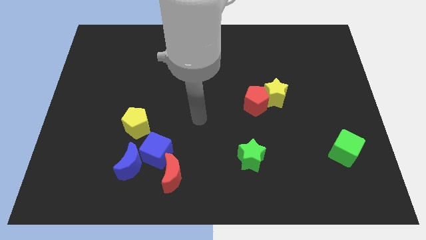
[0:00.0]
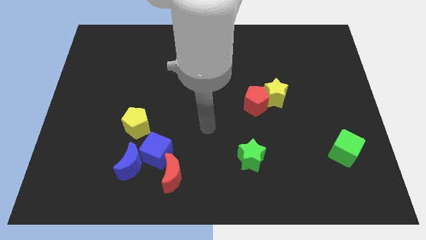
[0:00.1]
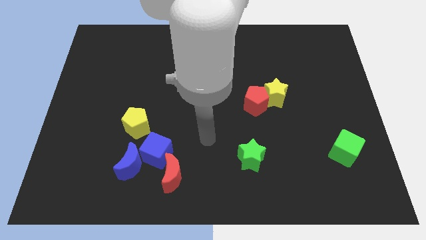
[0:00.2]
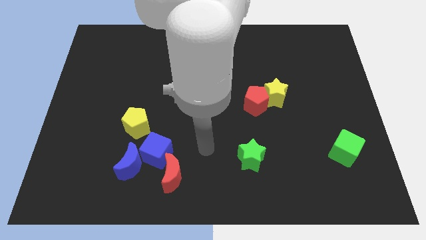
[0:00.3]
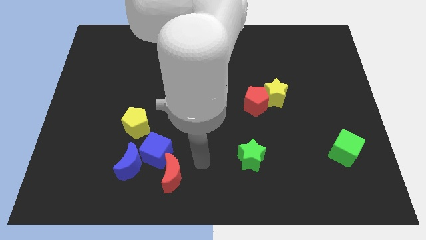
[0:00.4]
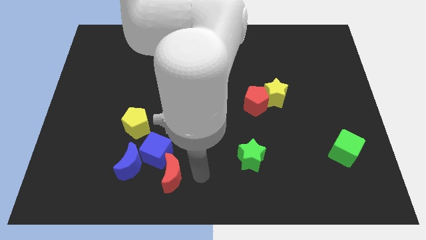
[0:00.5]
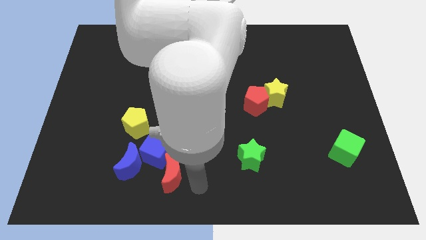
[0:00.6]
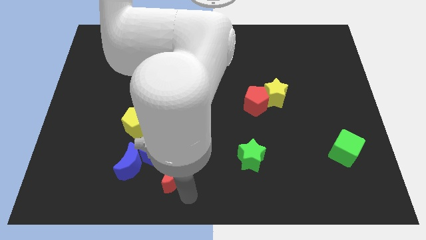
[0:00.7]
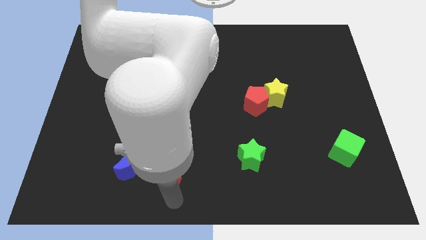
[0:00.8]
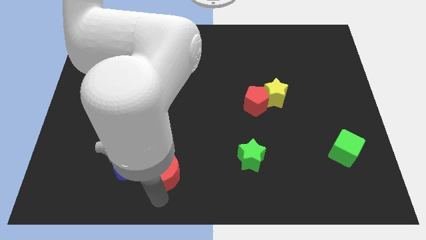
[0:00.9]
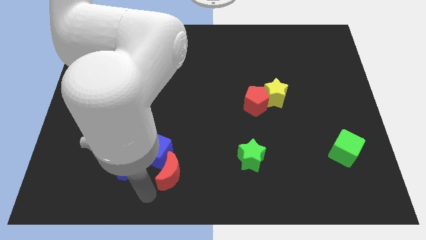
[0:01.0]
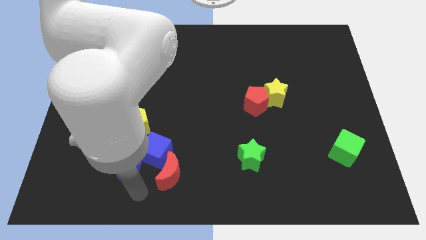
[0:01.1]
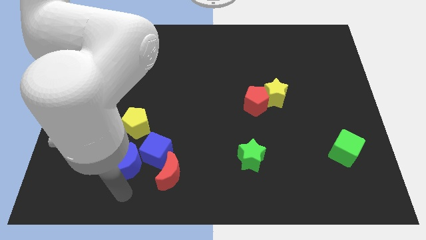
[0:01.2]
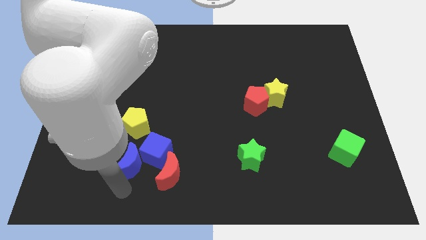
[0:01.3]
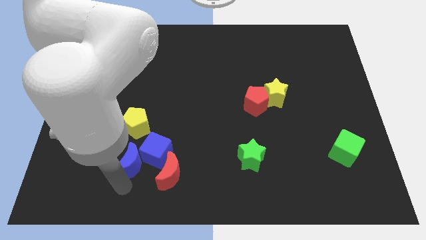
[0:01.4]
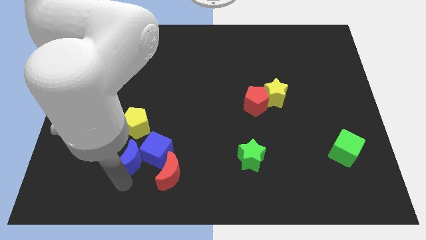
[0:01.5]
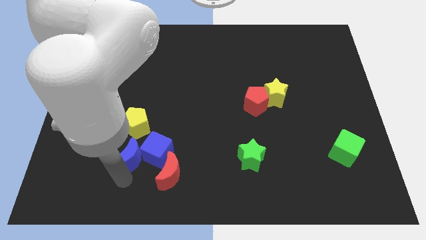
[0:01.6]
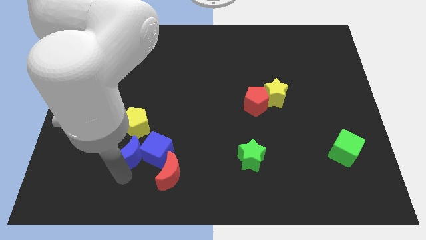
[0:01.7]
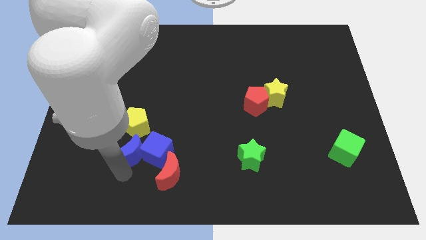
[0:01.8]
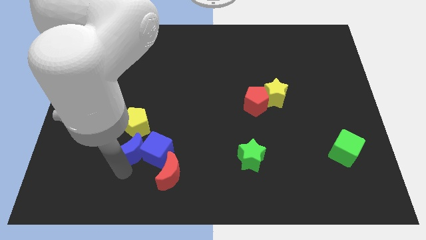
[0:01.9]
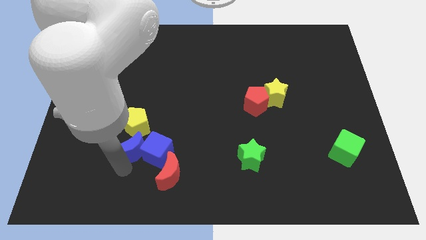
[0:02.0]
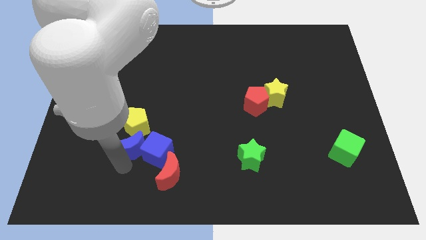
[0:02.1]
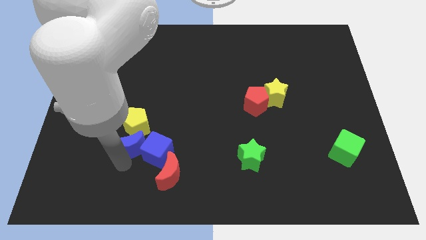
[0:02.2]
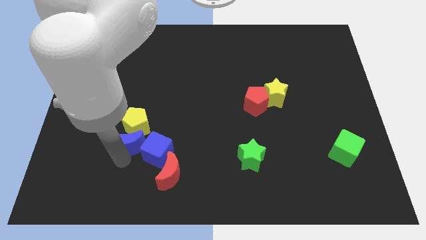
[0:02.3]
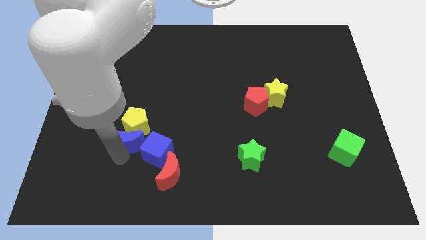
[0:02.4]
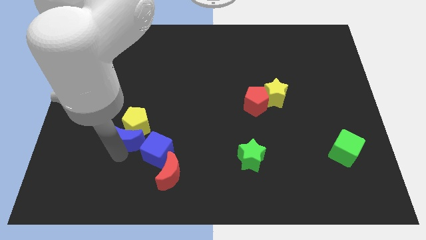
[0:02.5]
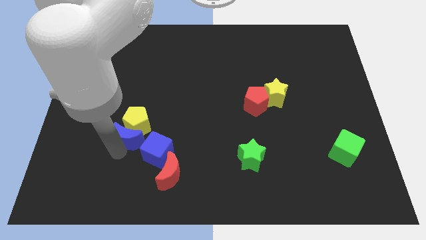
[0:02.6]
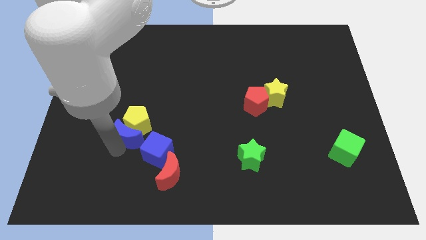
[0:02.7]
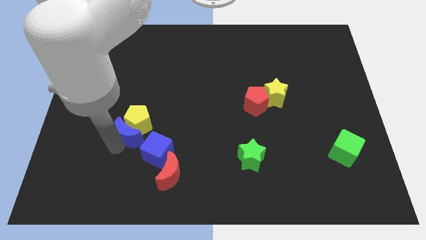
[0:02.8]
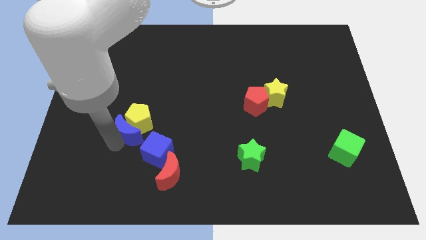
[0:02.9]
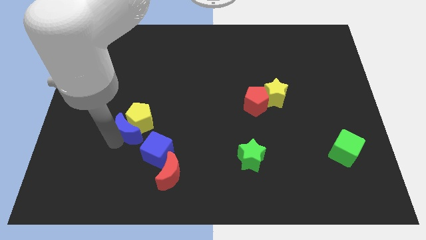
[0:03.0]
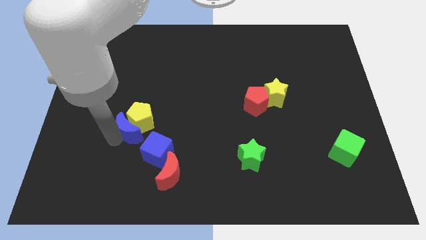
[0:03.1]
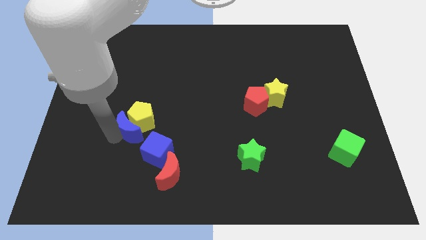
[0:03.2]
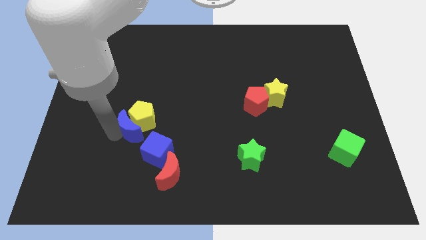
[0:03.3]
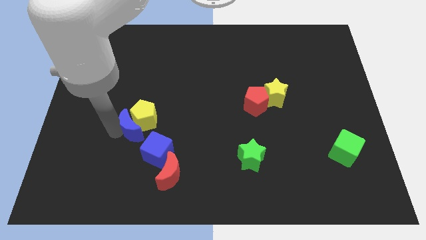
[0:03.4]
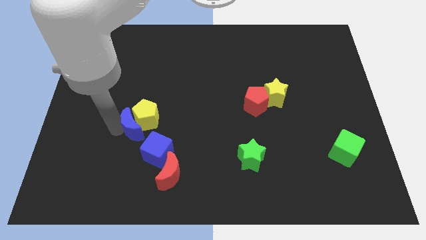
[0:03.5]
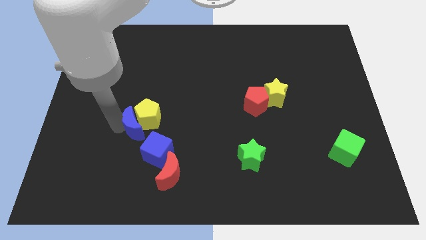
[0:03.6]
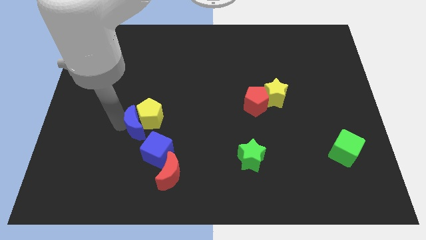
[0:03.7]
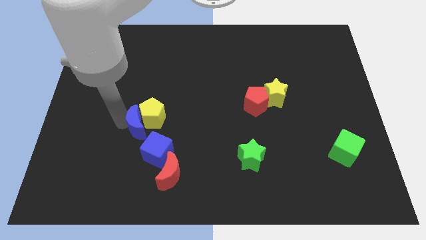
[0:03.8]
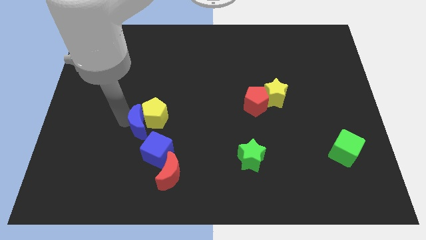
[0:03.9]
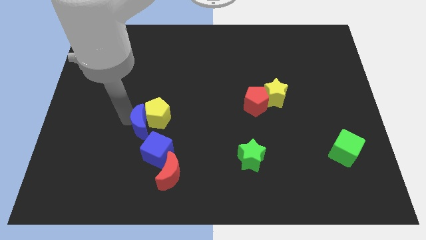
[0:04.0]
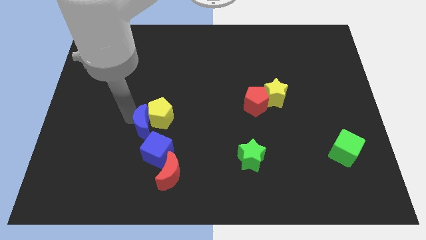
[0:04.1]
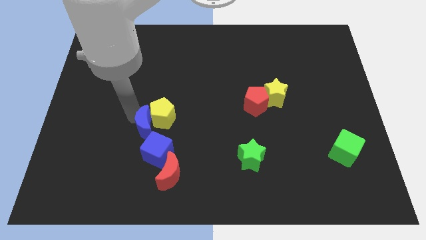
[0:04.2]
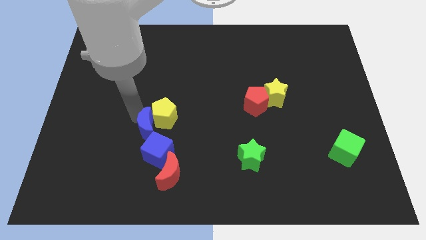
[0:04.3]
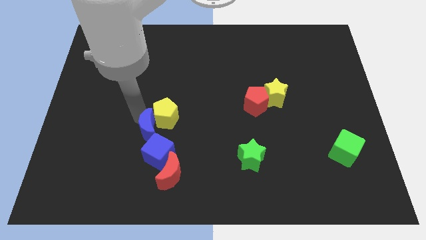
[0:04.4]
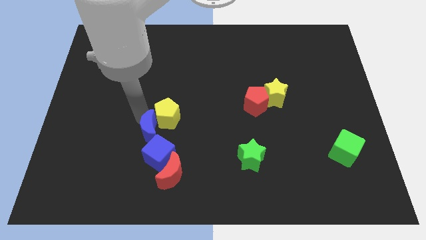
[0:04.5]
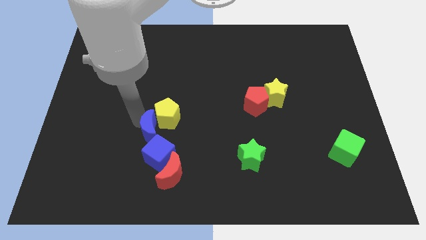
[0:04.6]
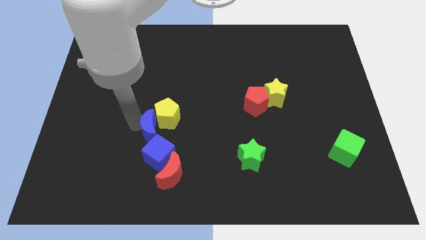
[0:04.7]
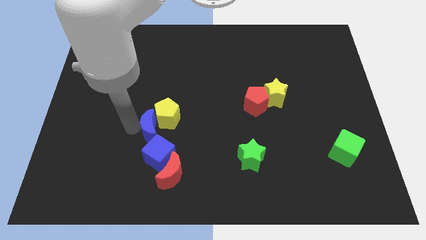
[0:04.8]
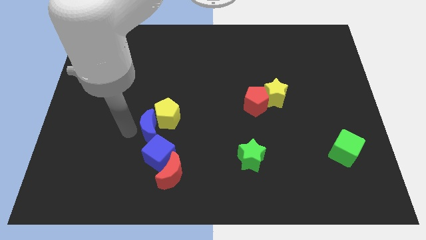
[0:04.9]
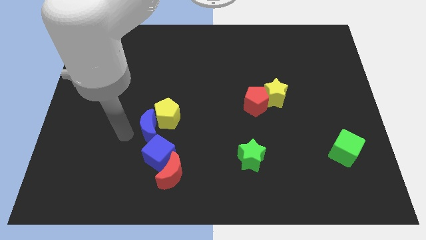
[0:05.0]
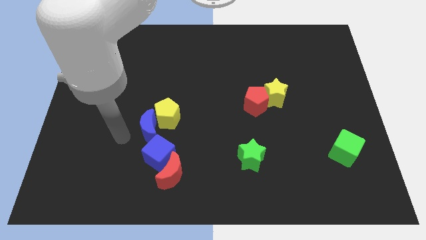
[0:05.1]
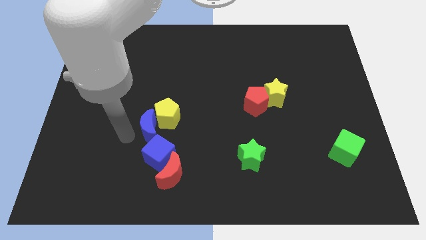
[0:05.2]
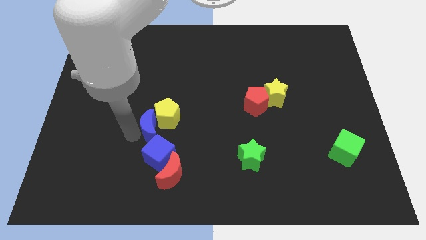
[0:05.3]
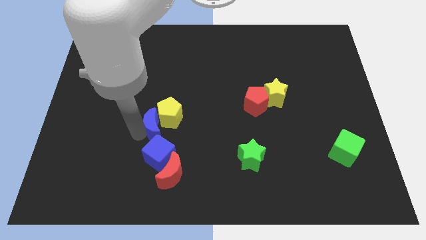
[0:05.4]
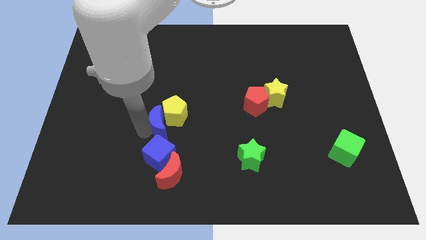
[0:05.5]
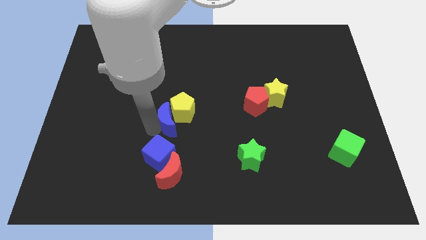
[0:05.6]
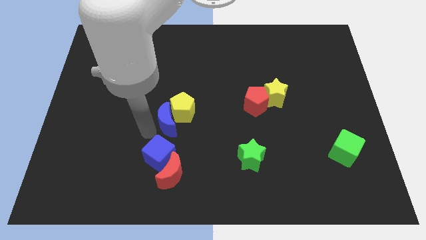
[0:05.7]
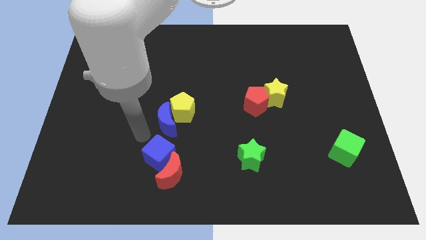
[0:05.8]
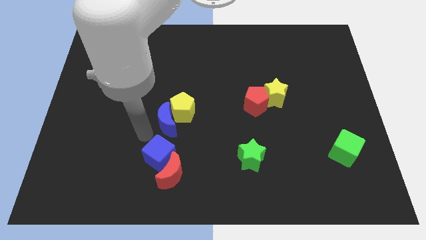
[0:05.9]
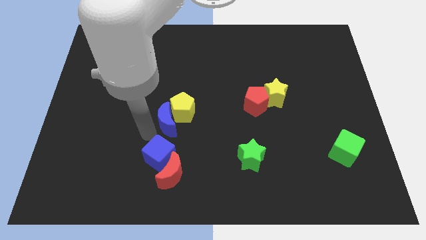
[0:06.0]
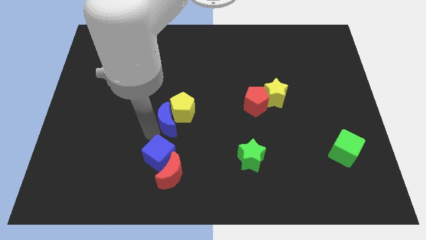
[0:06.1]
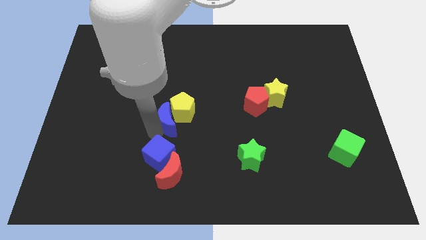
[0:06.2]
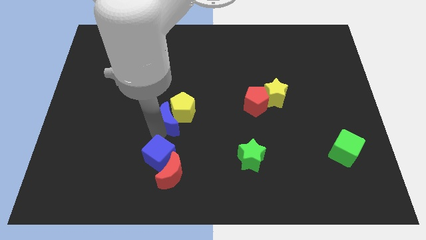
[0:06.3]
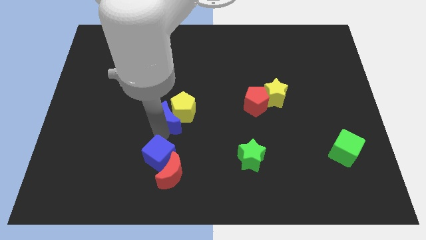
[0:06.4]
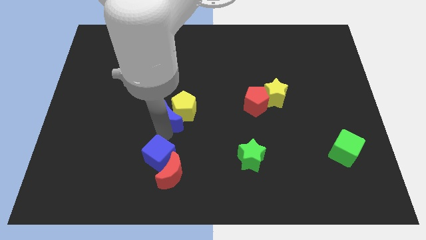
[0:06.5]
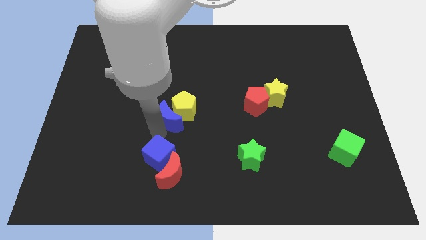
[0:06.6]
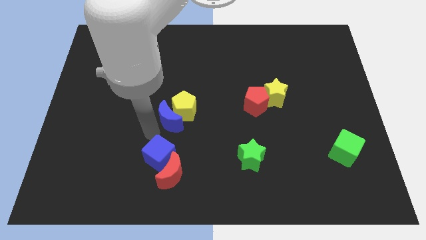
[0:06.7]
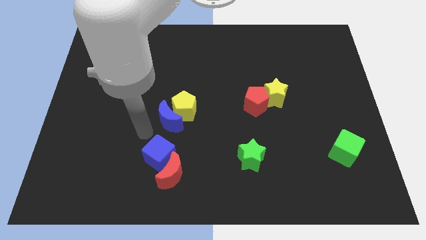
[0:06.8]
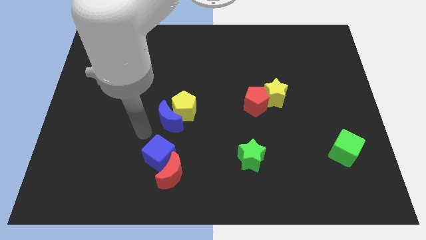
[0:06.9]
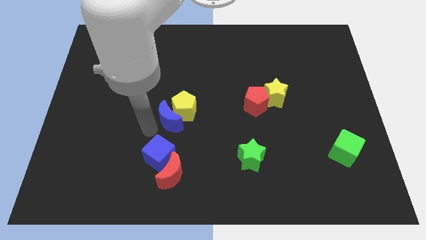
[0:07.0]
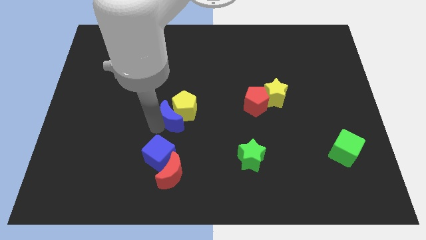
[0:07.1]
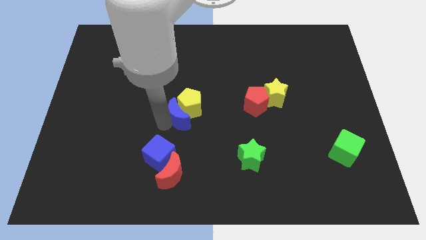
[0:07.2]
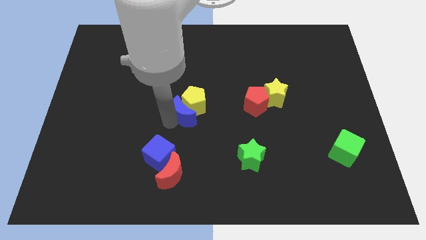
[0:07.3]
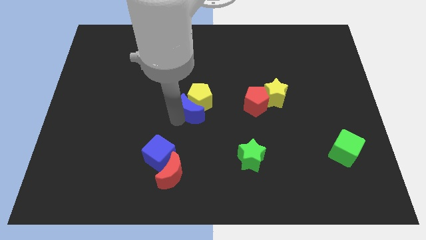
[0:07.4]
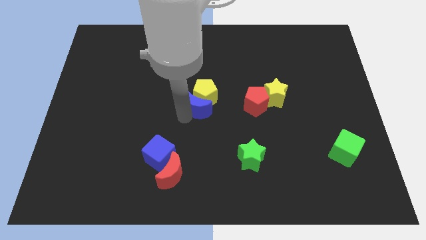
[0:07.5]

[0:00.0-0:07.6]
push the blue moon up and to the right diagonally

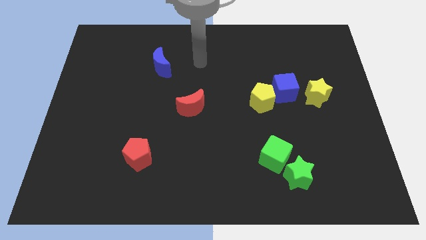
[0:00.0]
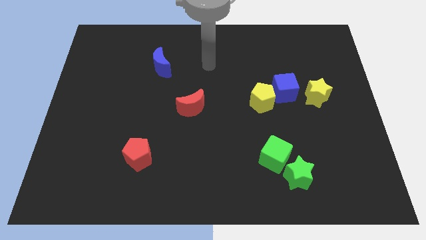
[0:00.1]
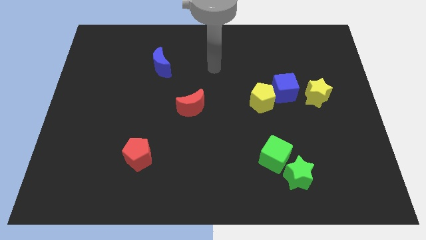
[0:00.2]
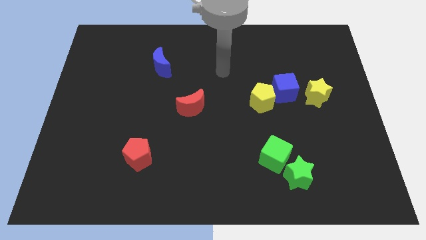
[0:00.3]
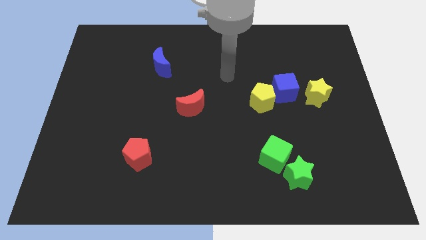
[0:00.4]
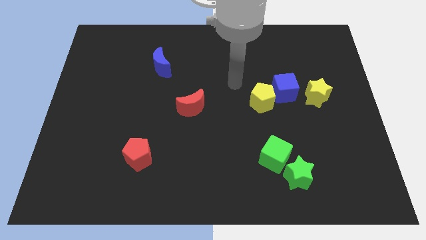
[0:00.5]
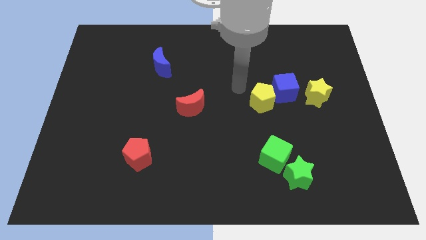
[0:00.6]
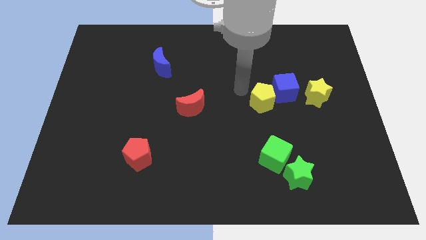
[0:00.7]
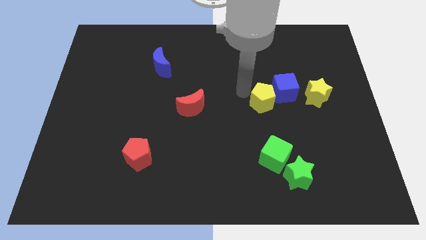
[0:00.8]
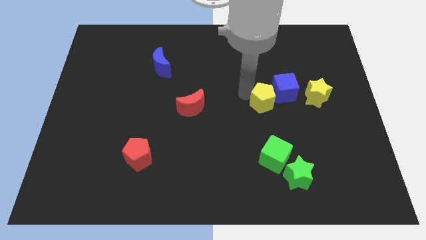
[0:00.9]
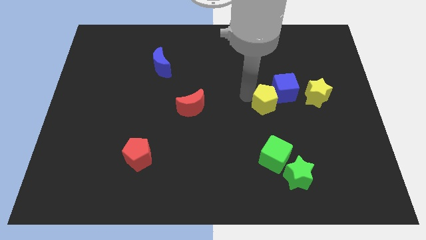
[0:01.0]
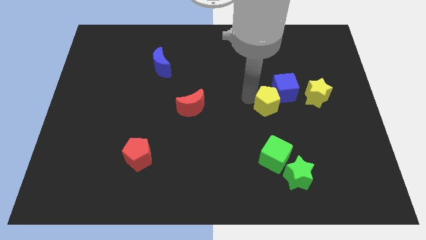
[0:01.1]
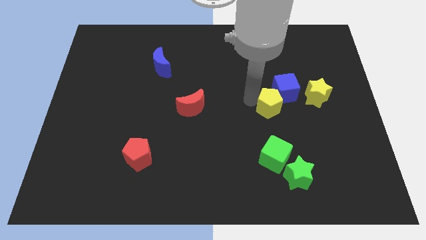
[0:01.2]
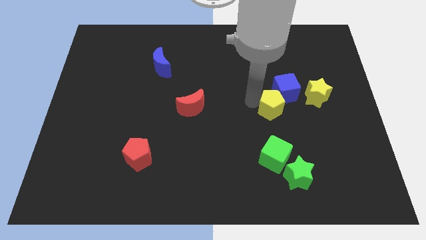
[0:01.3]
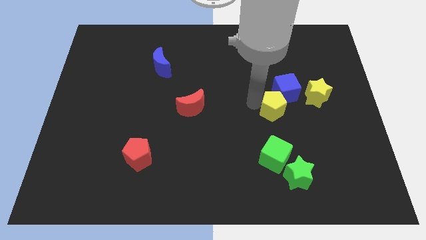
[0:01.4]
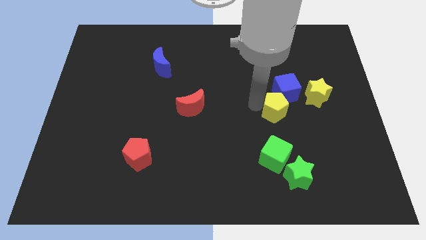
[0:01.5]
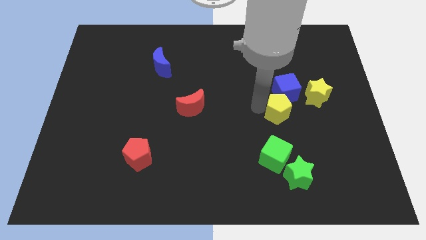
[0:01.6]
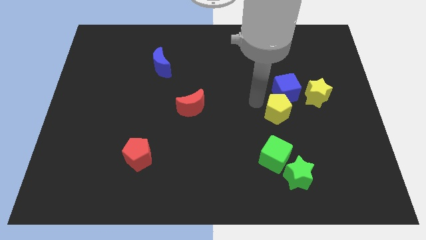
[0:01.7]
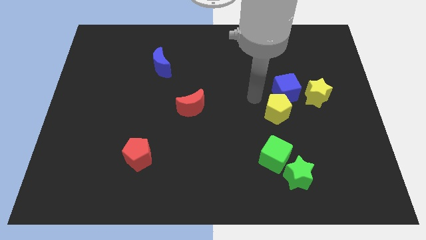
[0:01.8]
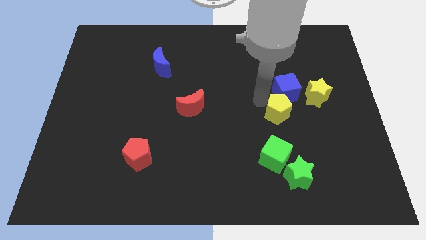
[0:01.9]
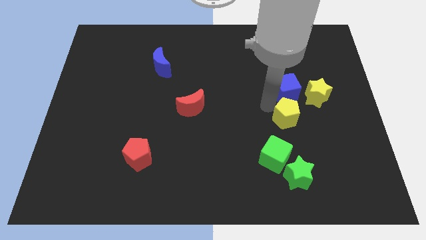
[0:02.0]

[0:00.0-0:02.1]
slightly slide the yellow pentagon downwards and then to the right
